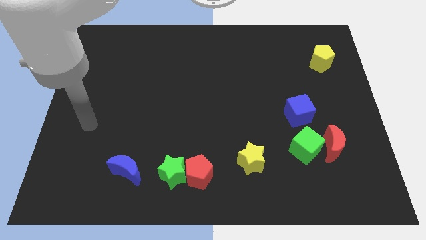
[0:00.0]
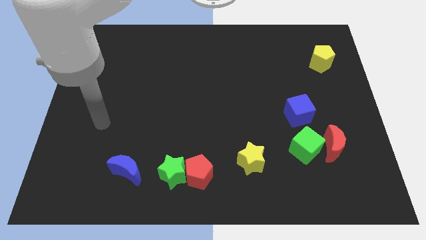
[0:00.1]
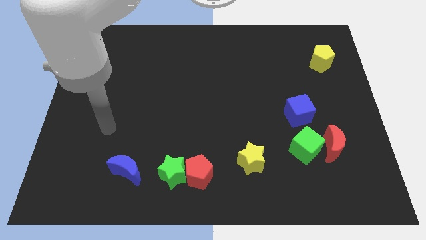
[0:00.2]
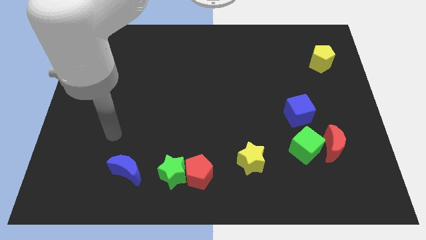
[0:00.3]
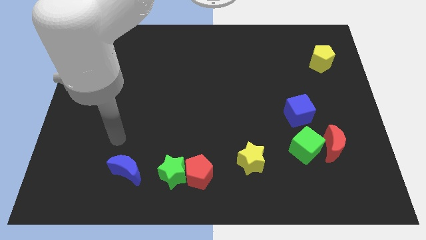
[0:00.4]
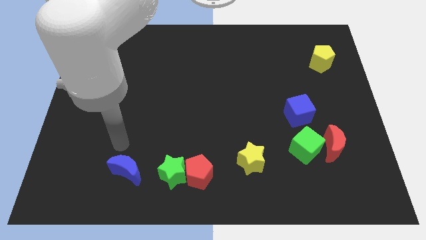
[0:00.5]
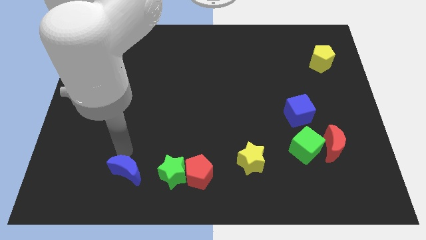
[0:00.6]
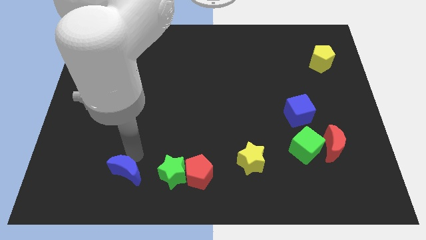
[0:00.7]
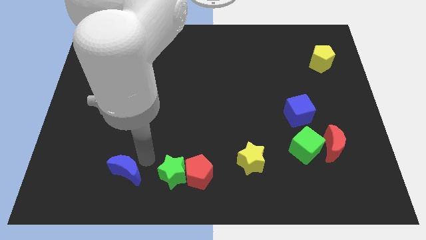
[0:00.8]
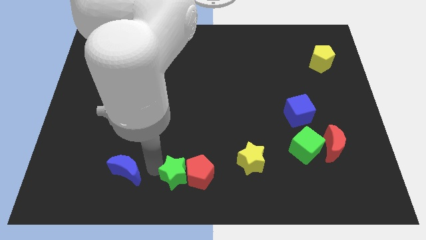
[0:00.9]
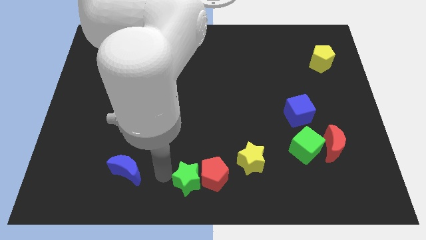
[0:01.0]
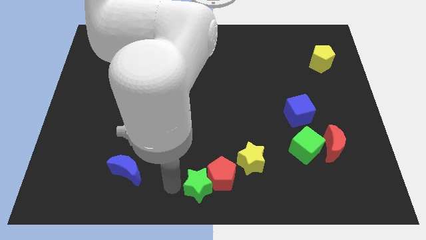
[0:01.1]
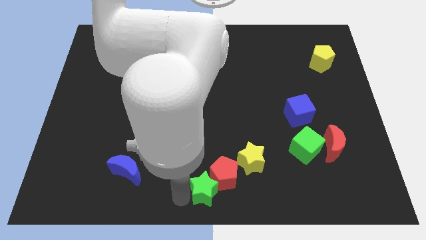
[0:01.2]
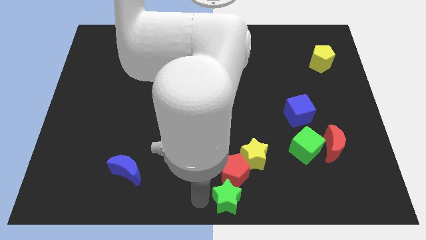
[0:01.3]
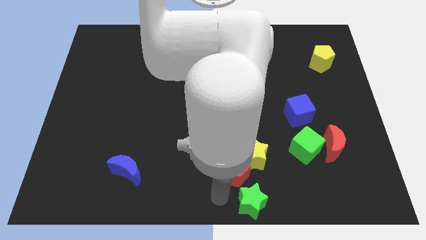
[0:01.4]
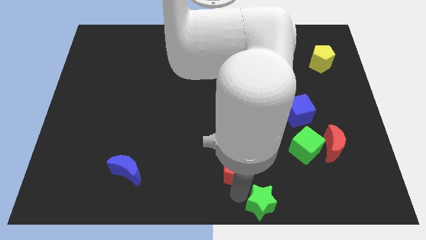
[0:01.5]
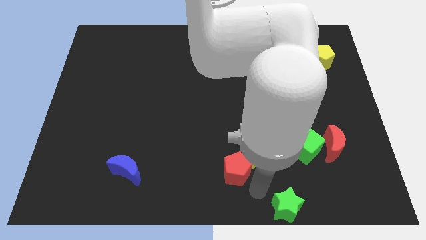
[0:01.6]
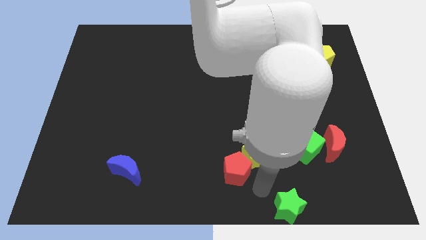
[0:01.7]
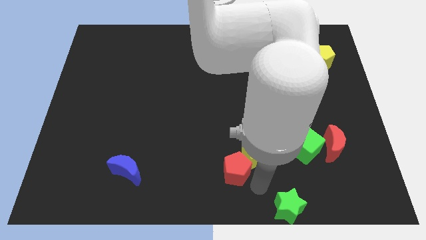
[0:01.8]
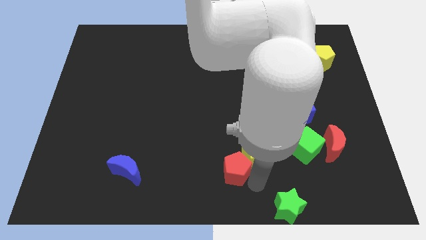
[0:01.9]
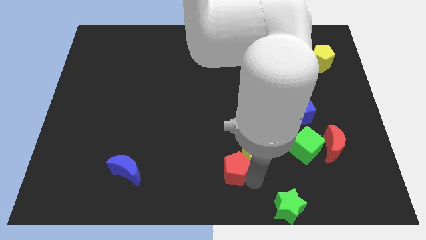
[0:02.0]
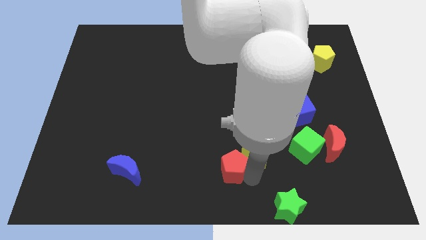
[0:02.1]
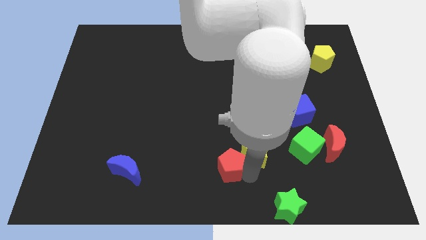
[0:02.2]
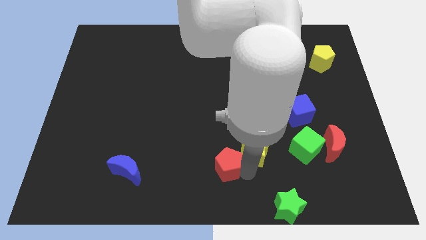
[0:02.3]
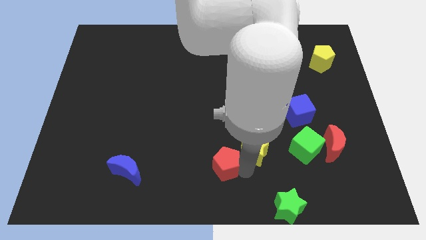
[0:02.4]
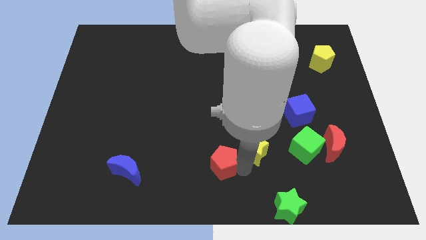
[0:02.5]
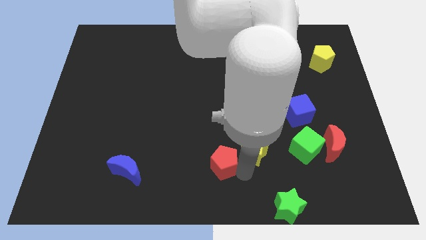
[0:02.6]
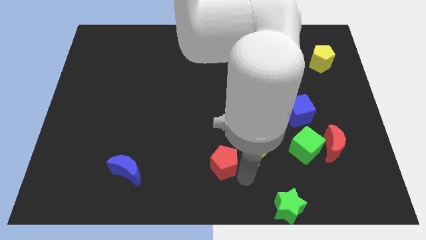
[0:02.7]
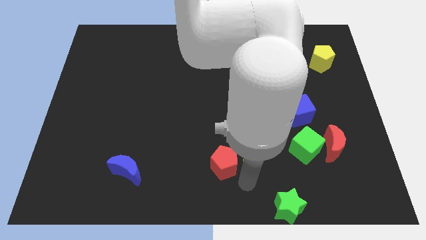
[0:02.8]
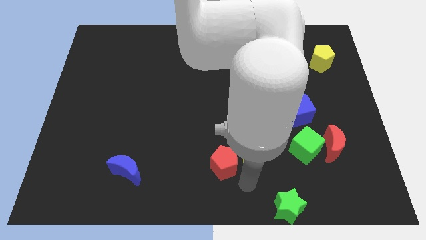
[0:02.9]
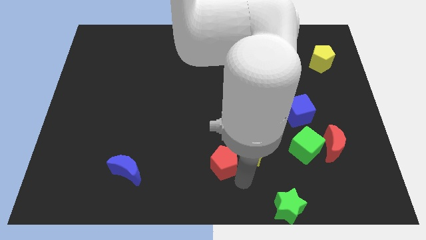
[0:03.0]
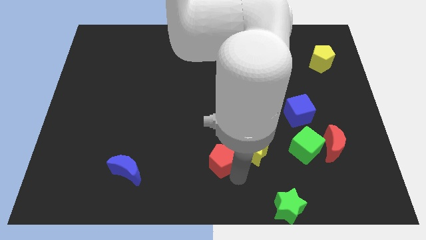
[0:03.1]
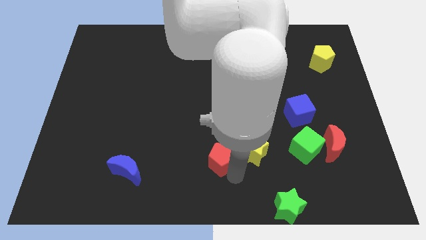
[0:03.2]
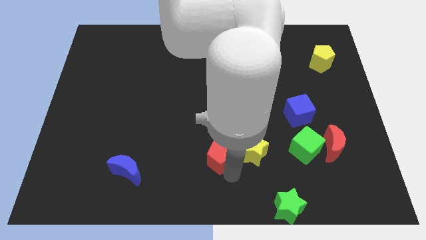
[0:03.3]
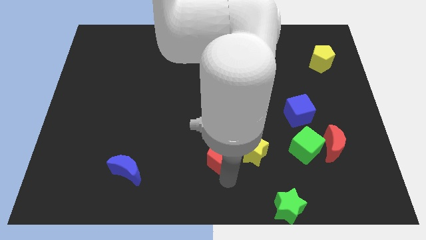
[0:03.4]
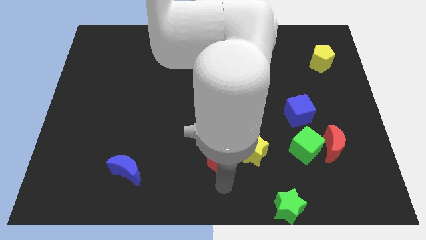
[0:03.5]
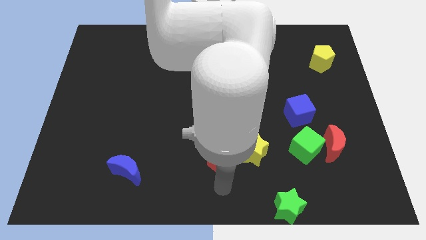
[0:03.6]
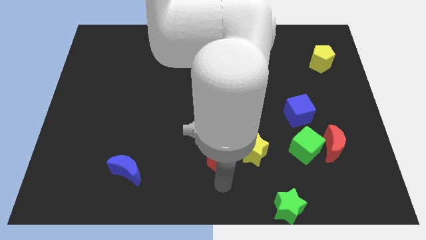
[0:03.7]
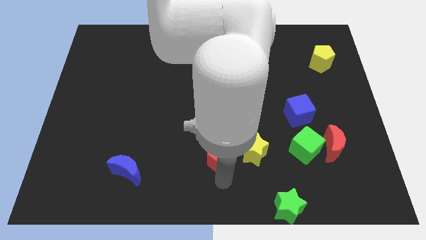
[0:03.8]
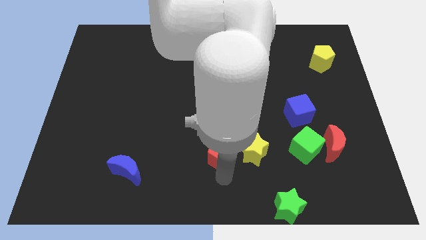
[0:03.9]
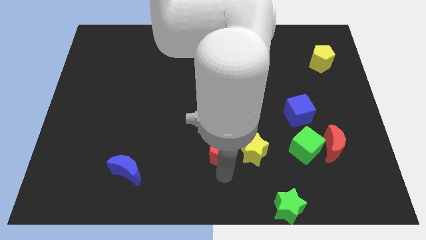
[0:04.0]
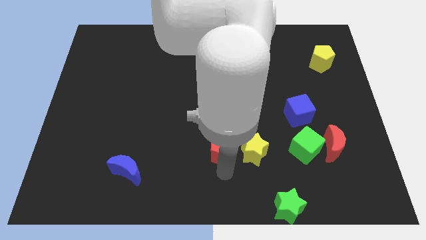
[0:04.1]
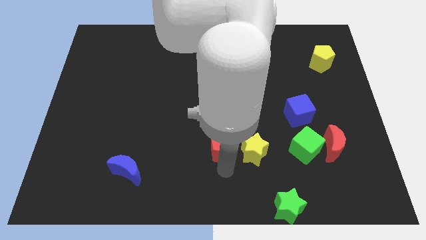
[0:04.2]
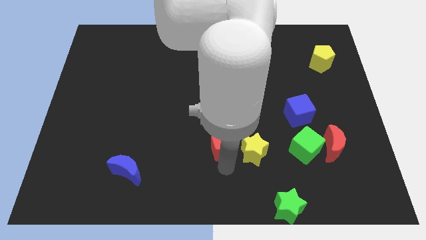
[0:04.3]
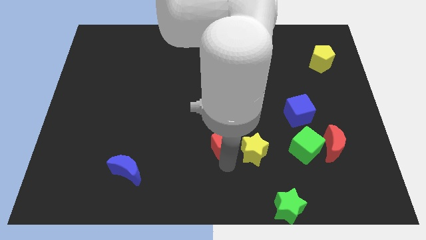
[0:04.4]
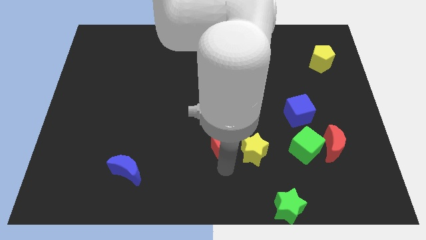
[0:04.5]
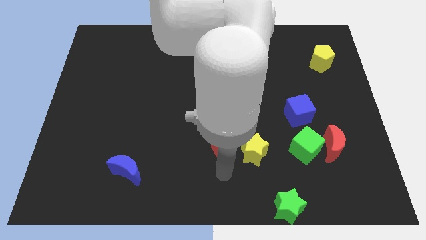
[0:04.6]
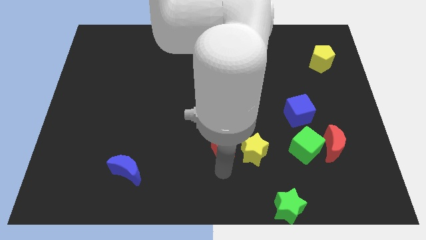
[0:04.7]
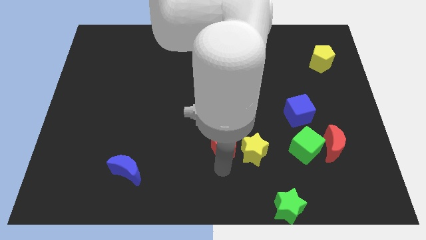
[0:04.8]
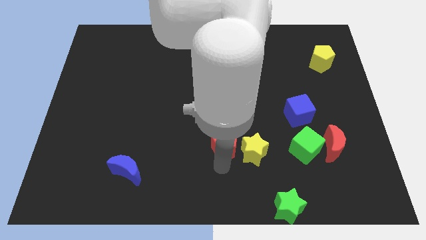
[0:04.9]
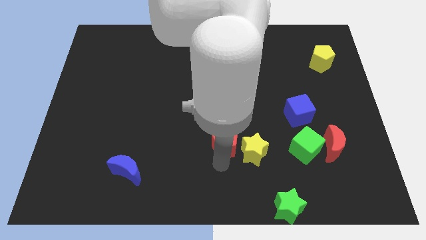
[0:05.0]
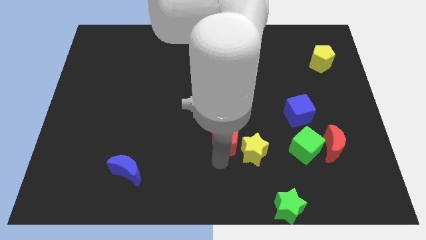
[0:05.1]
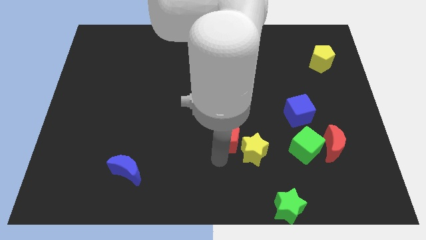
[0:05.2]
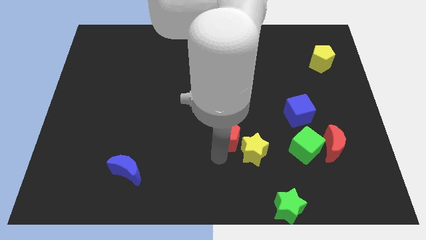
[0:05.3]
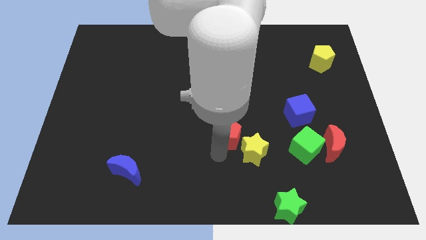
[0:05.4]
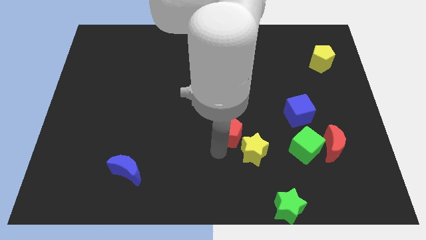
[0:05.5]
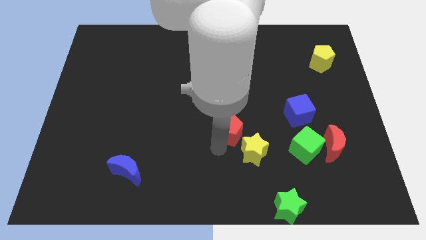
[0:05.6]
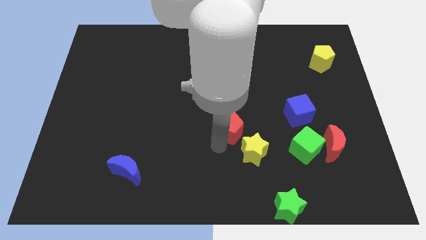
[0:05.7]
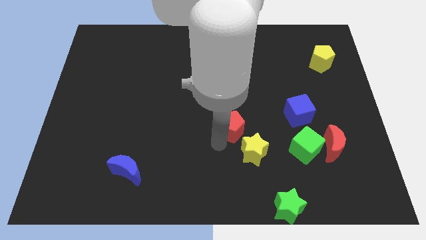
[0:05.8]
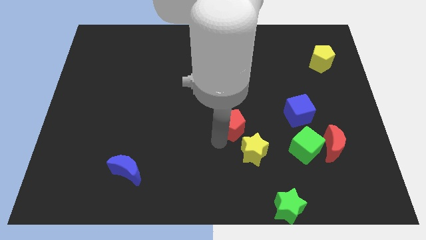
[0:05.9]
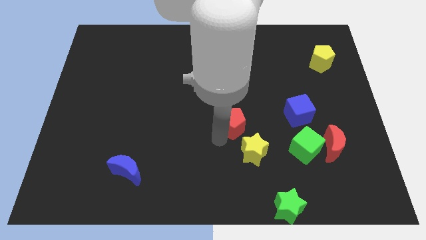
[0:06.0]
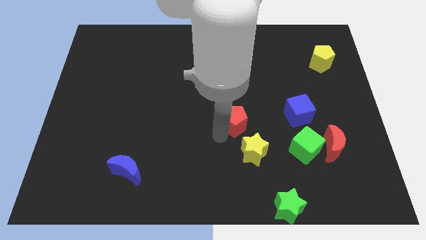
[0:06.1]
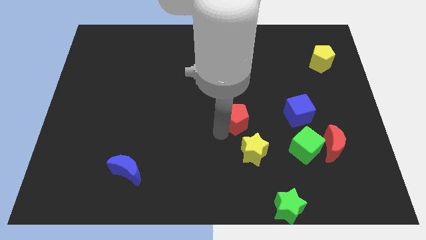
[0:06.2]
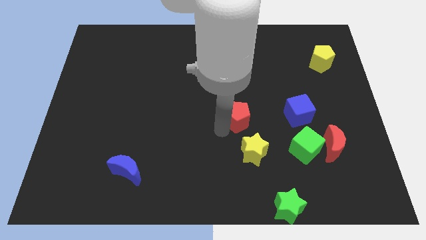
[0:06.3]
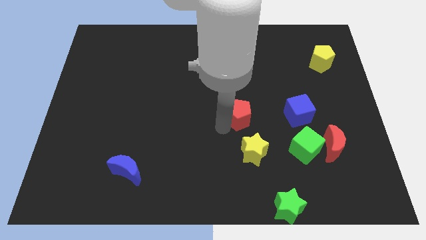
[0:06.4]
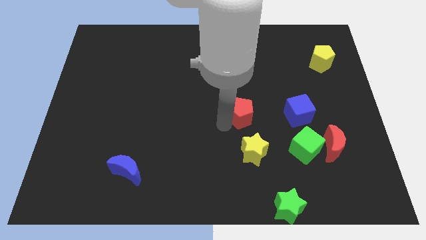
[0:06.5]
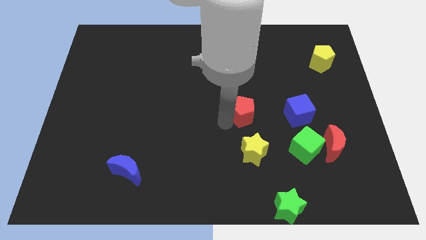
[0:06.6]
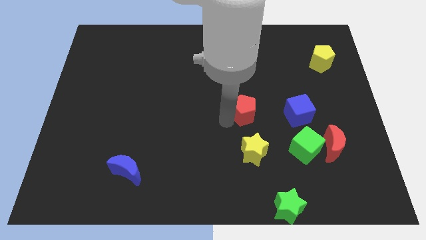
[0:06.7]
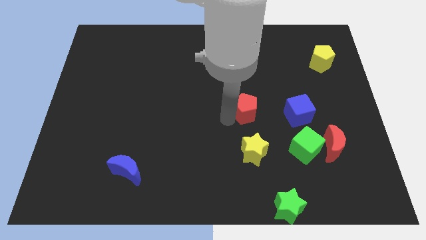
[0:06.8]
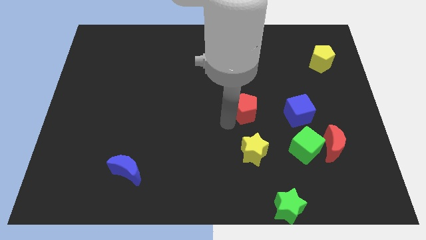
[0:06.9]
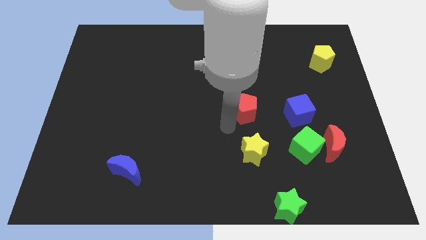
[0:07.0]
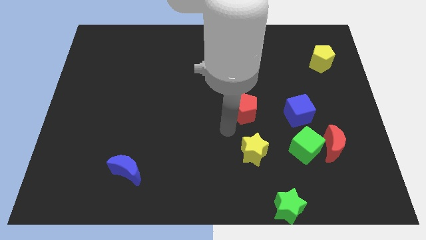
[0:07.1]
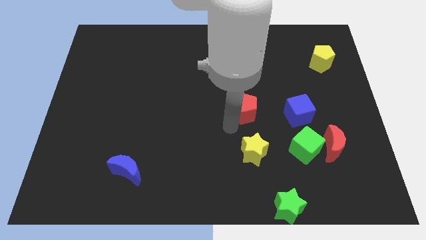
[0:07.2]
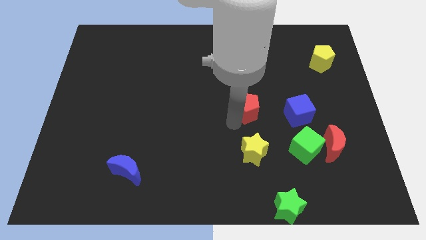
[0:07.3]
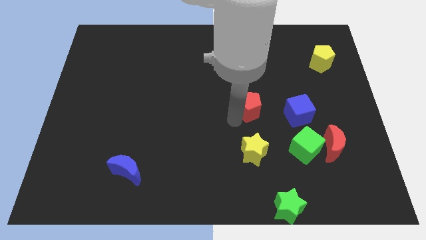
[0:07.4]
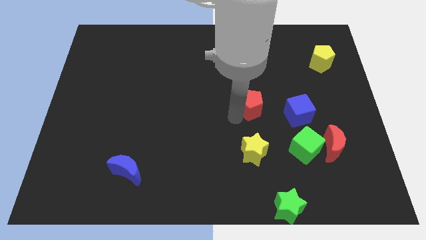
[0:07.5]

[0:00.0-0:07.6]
move the red pentagon upwards and to the right

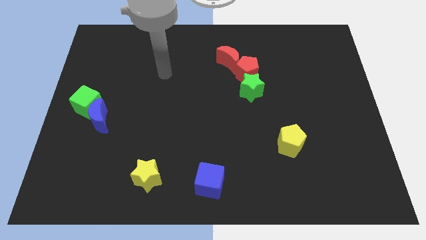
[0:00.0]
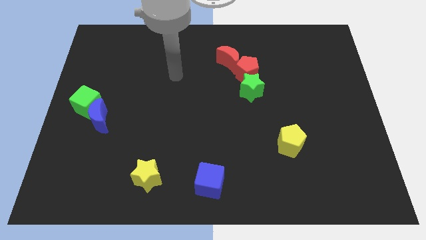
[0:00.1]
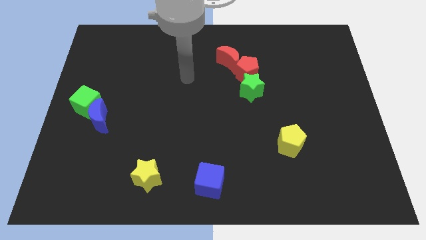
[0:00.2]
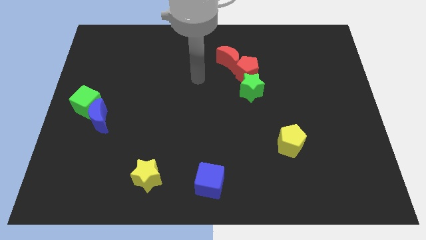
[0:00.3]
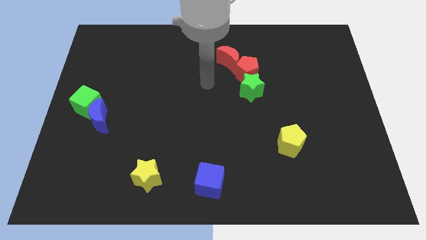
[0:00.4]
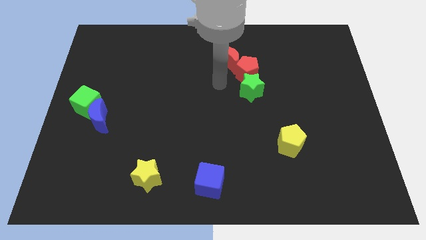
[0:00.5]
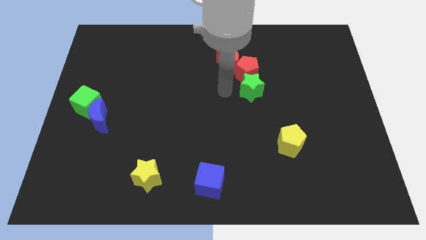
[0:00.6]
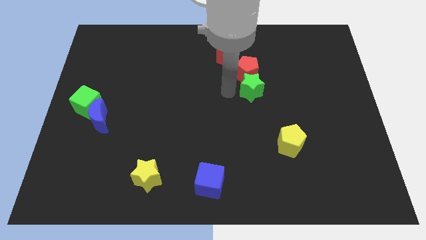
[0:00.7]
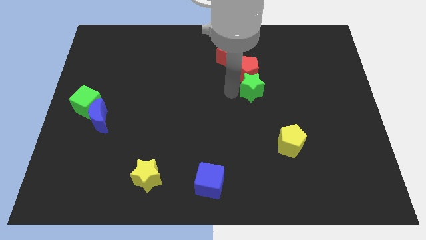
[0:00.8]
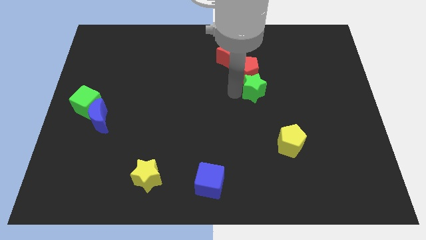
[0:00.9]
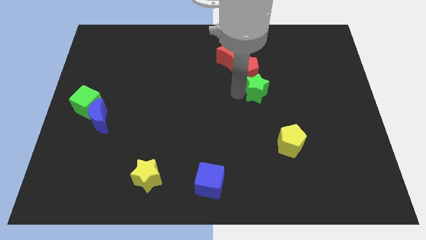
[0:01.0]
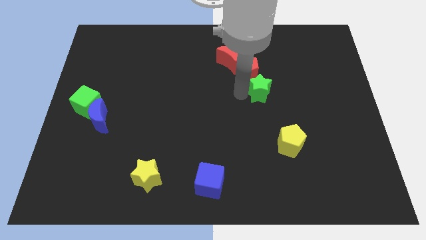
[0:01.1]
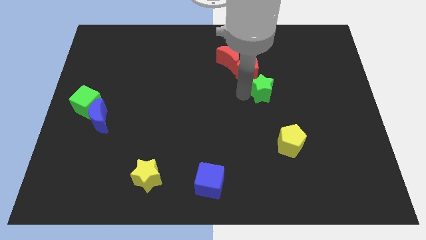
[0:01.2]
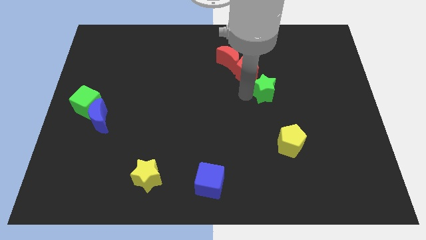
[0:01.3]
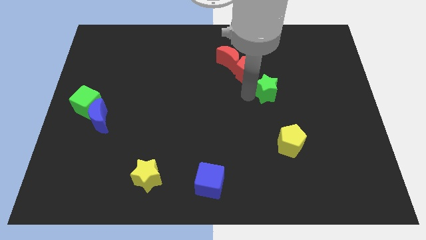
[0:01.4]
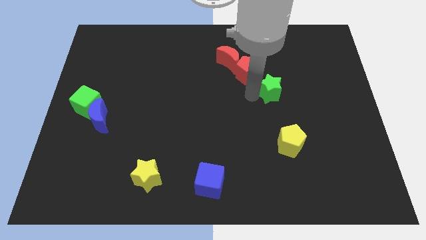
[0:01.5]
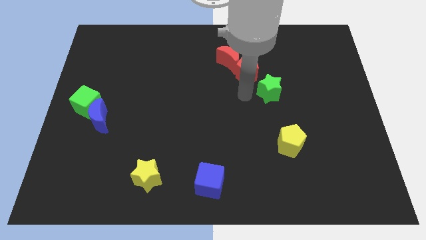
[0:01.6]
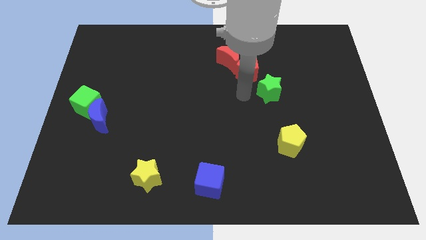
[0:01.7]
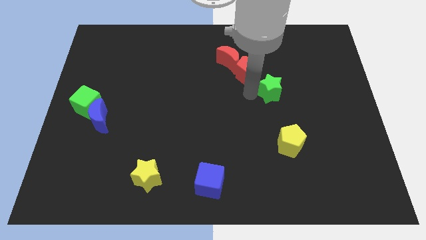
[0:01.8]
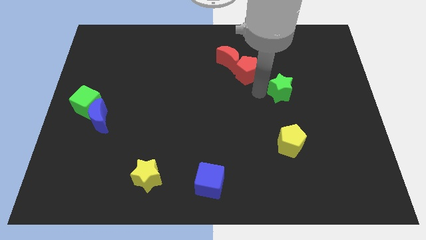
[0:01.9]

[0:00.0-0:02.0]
move the green star a little bit to the right
